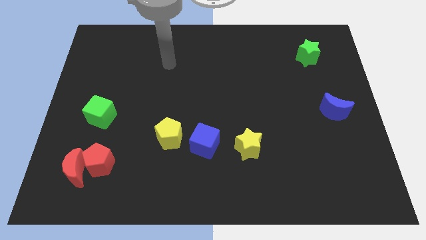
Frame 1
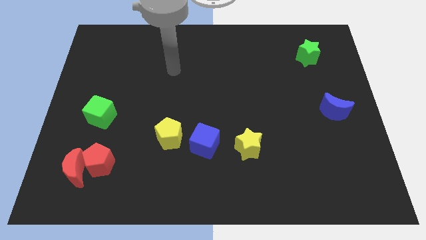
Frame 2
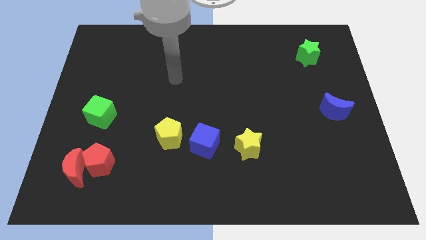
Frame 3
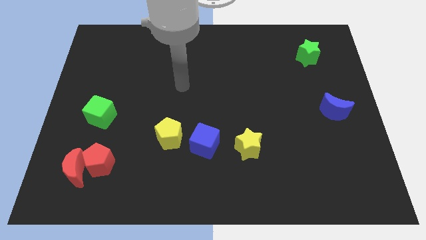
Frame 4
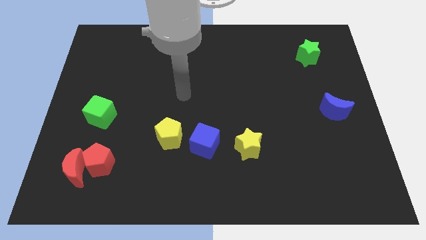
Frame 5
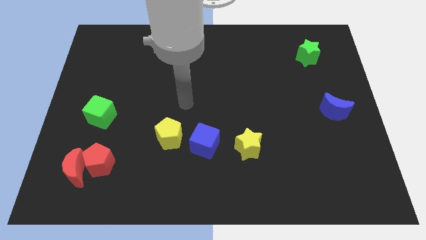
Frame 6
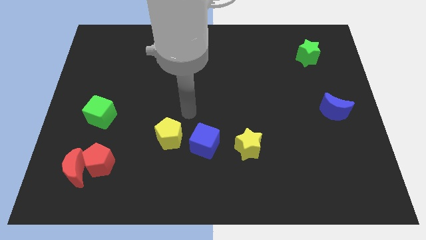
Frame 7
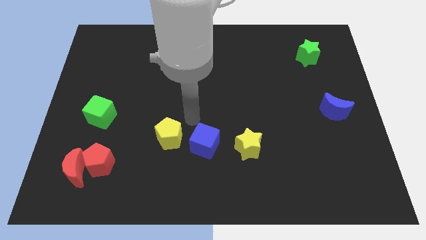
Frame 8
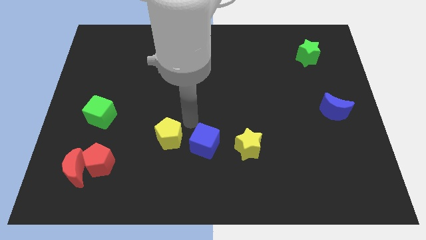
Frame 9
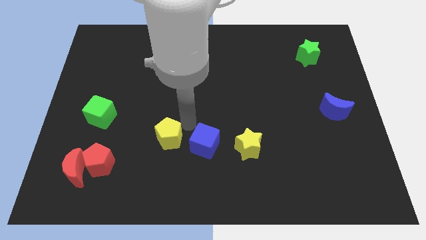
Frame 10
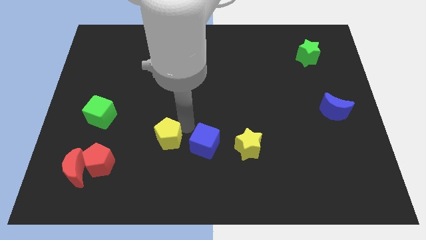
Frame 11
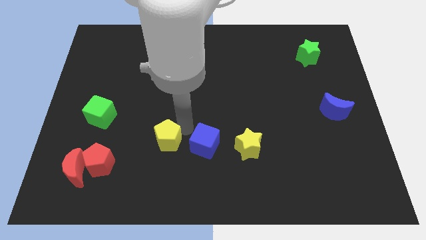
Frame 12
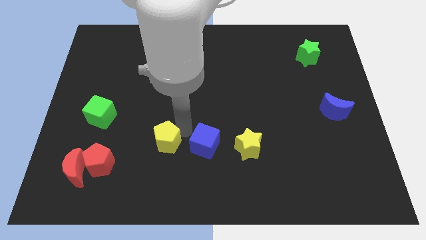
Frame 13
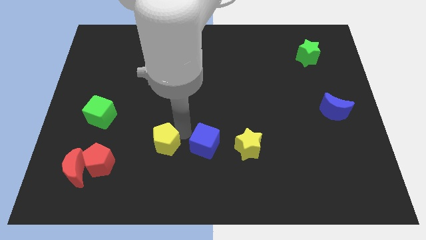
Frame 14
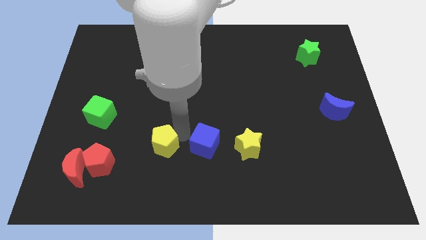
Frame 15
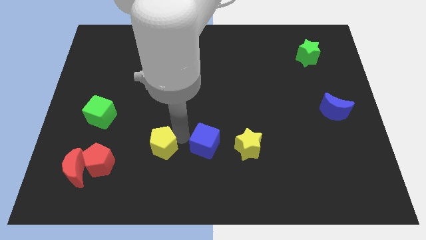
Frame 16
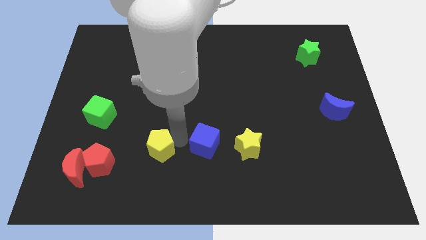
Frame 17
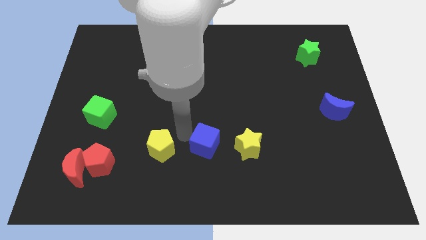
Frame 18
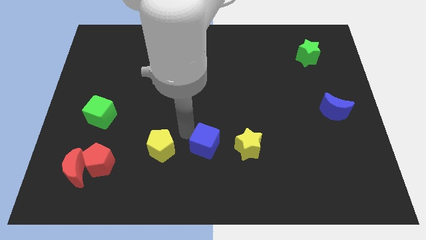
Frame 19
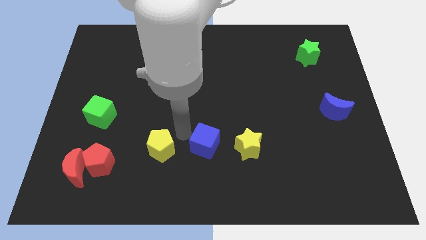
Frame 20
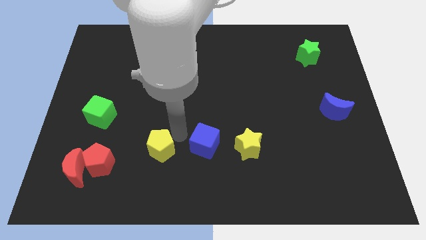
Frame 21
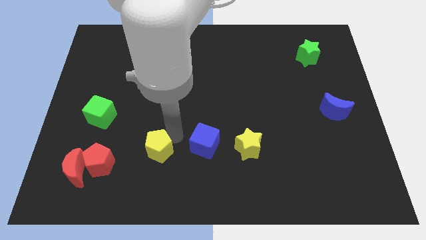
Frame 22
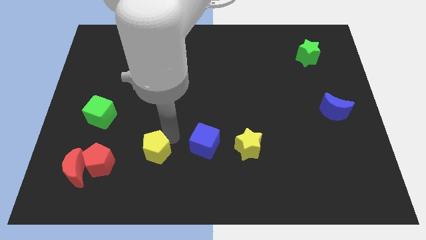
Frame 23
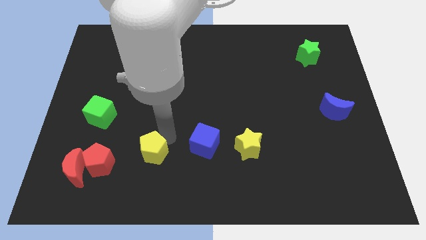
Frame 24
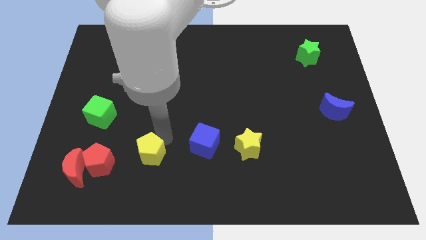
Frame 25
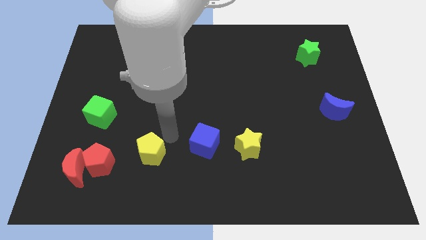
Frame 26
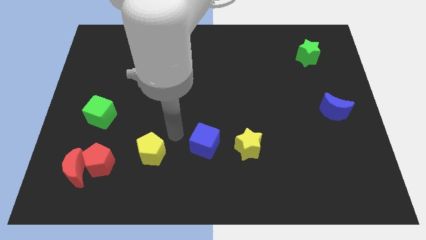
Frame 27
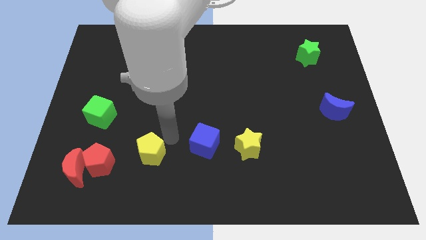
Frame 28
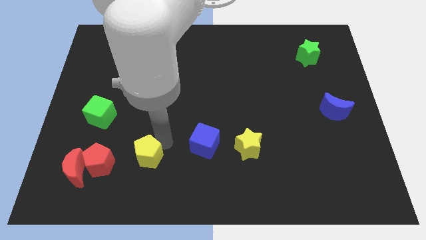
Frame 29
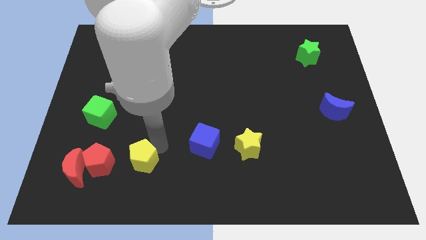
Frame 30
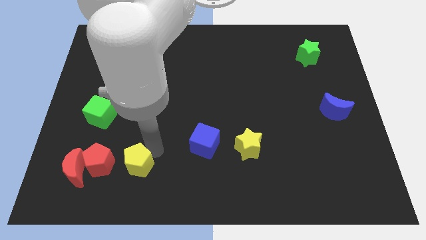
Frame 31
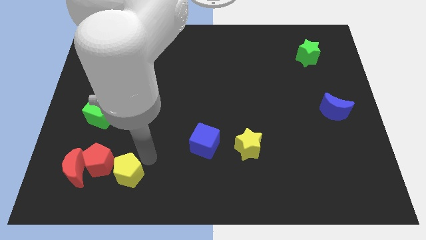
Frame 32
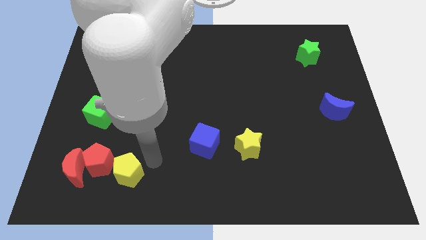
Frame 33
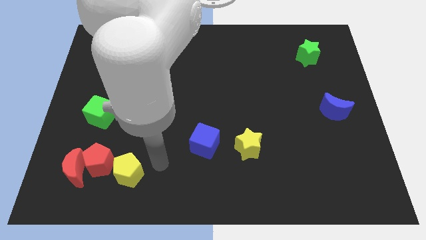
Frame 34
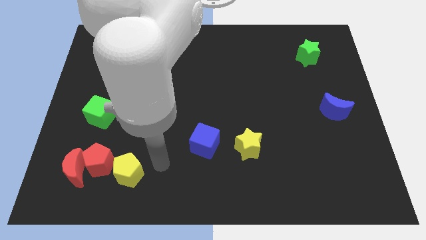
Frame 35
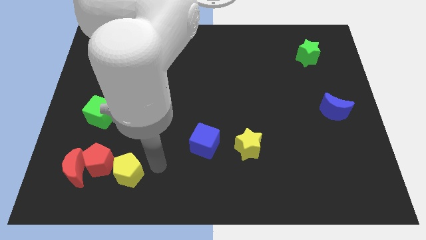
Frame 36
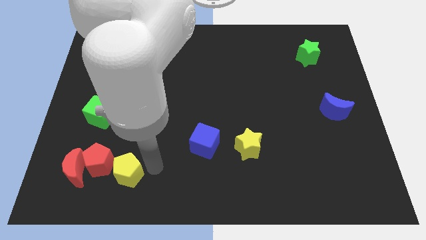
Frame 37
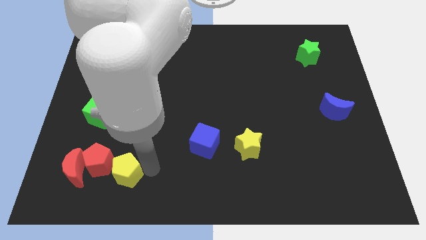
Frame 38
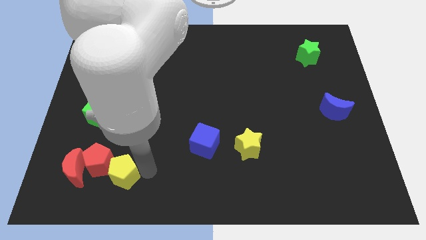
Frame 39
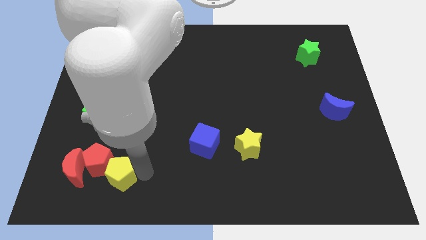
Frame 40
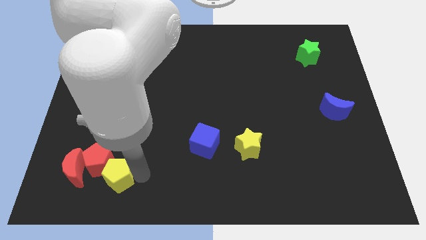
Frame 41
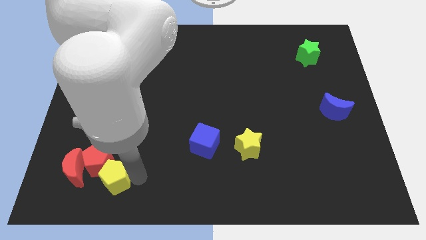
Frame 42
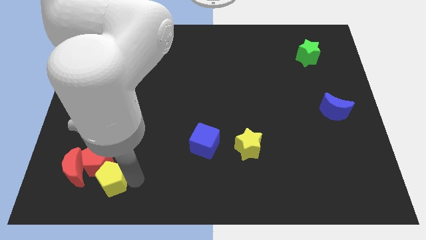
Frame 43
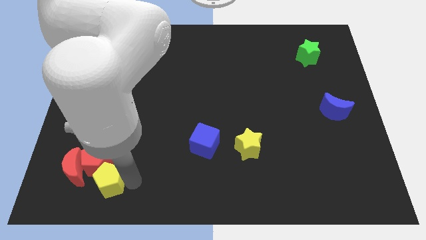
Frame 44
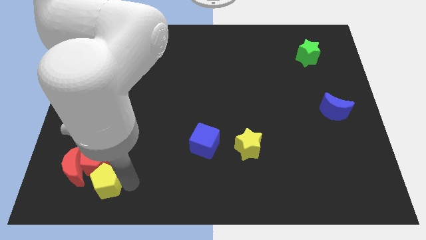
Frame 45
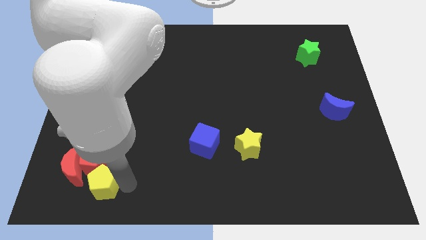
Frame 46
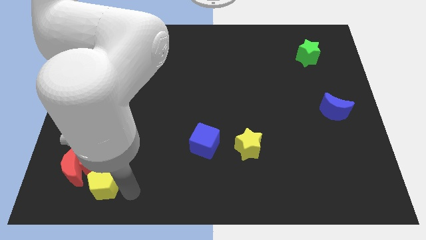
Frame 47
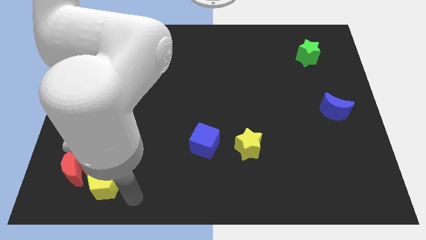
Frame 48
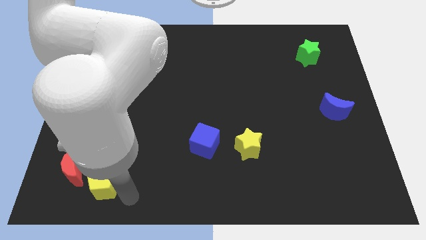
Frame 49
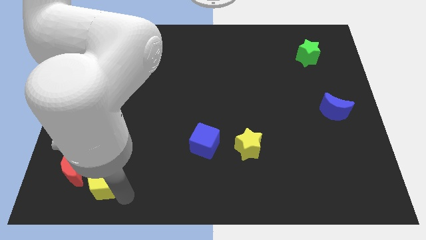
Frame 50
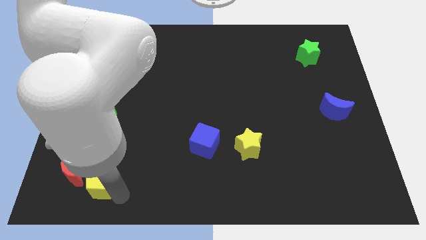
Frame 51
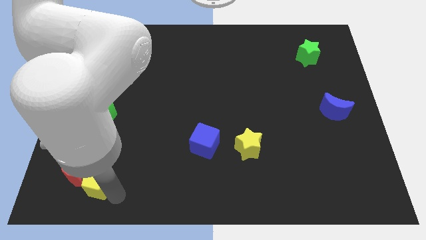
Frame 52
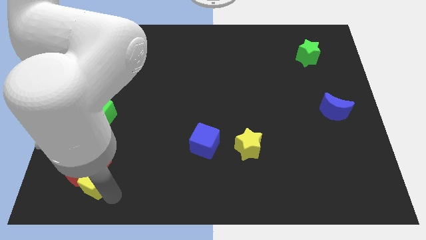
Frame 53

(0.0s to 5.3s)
push the yellow pentagon close to the red moon

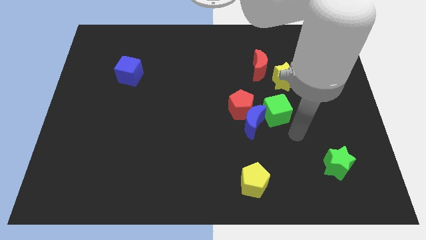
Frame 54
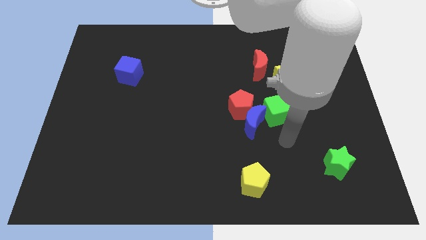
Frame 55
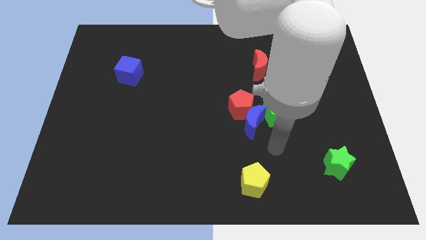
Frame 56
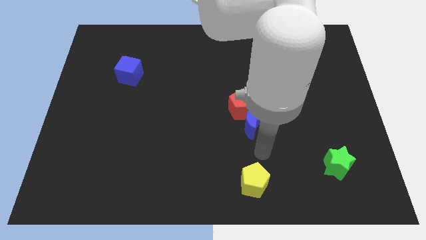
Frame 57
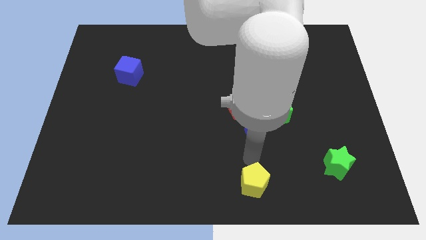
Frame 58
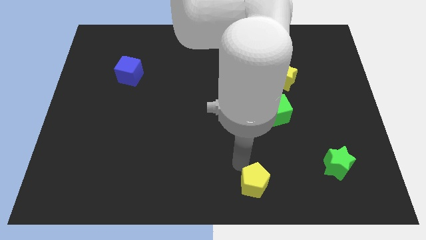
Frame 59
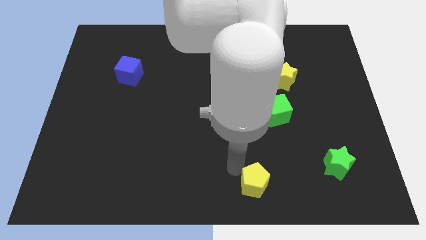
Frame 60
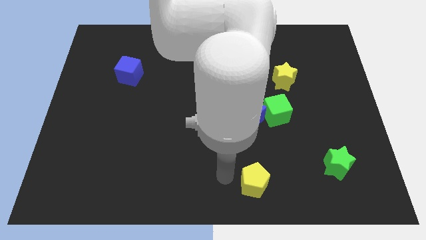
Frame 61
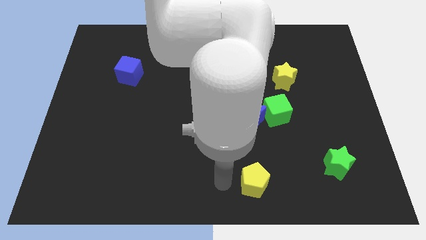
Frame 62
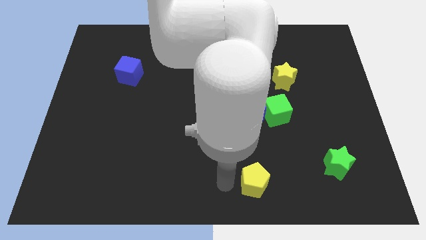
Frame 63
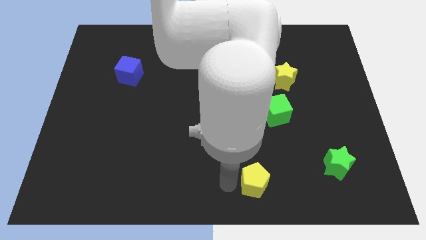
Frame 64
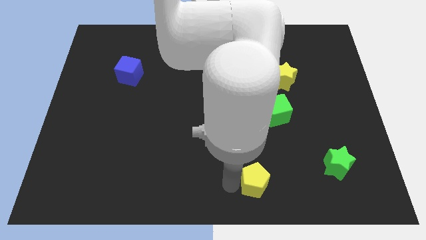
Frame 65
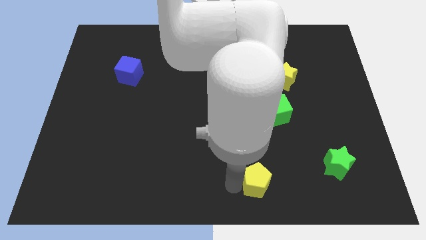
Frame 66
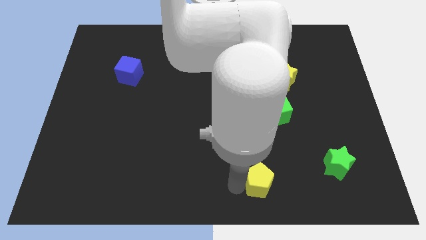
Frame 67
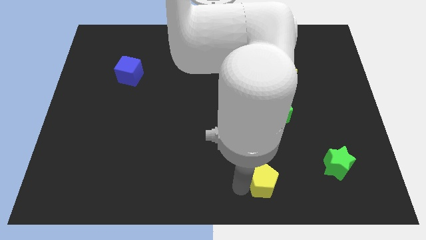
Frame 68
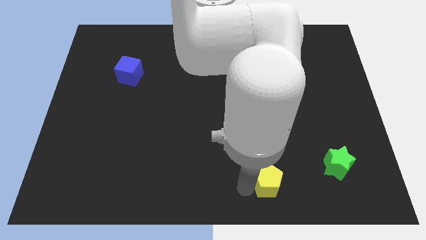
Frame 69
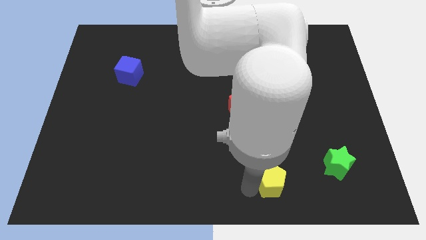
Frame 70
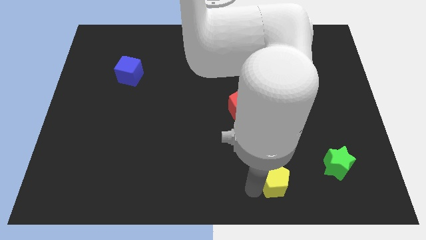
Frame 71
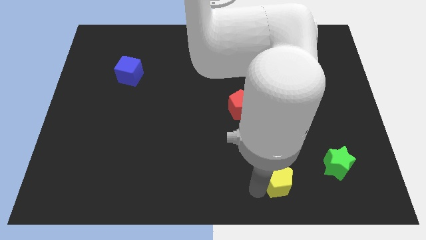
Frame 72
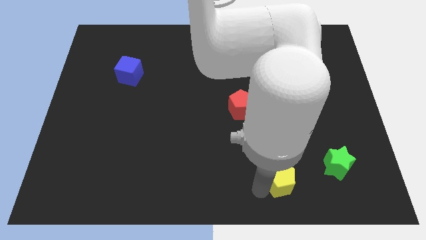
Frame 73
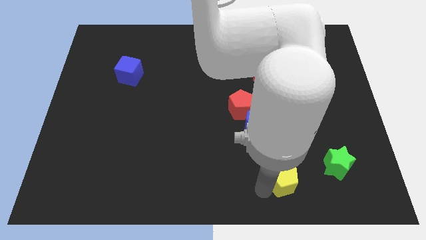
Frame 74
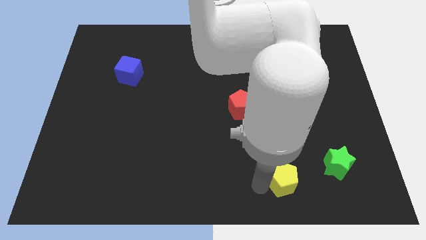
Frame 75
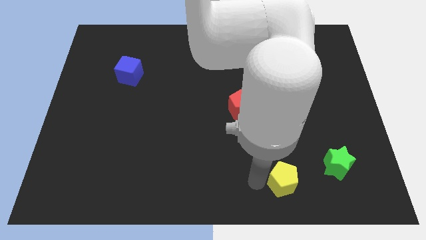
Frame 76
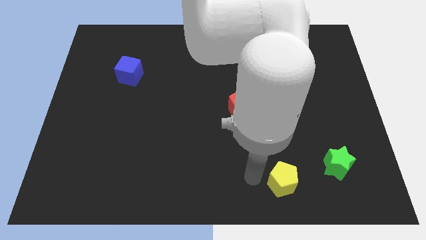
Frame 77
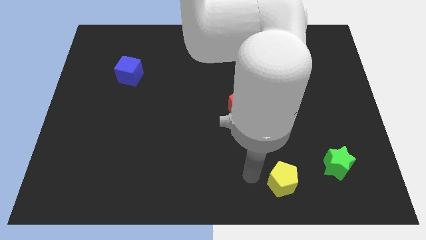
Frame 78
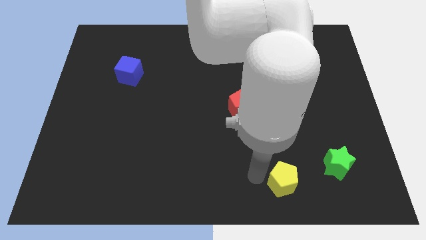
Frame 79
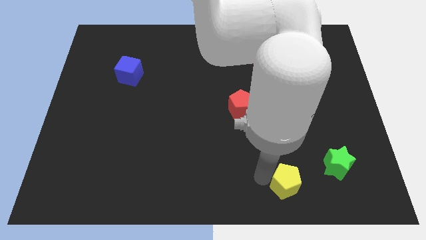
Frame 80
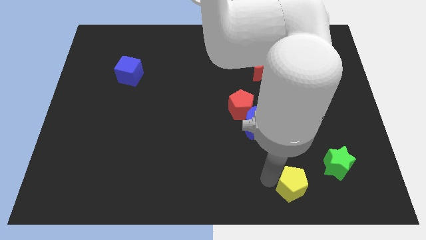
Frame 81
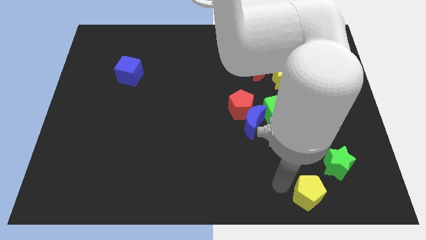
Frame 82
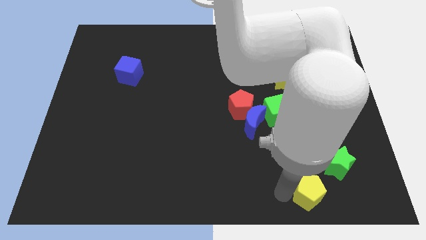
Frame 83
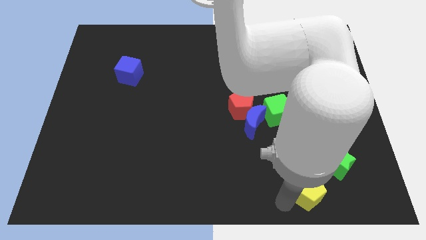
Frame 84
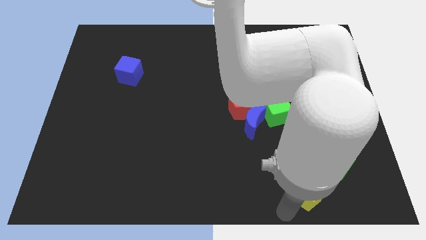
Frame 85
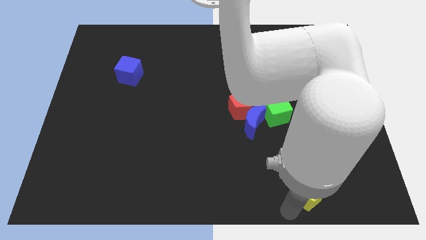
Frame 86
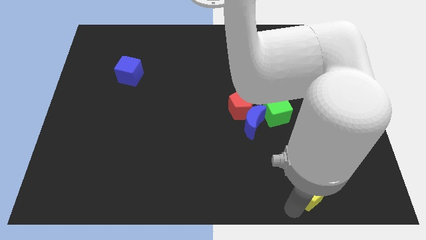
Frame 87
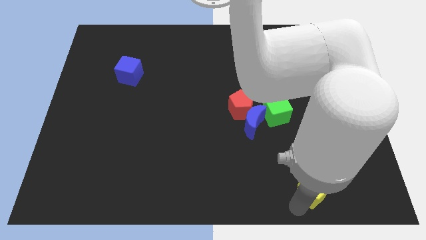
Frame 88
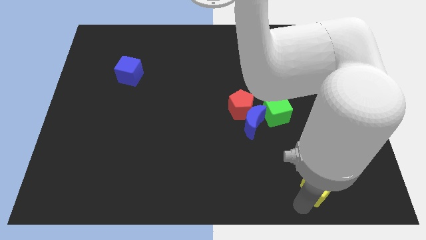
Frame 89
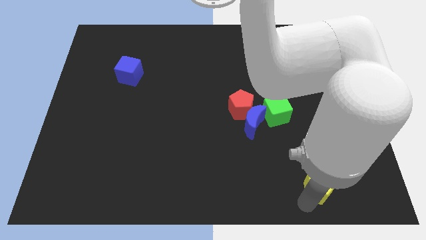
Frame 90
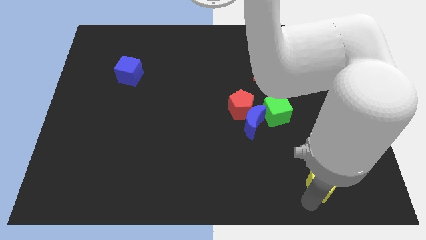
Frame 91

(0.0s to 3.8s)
slide the yellow pentagon to the green star
